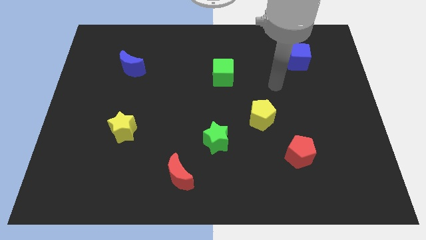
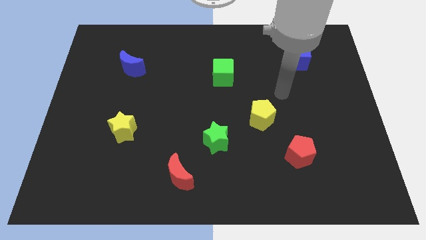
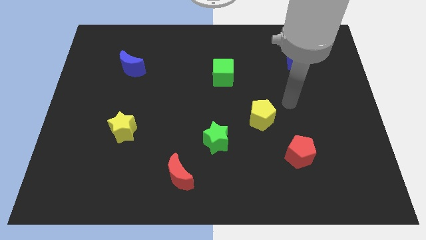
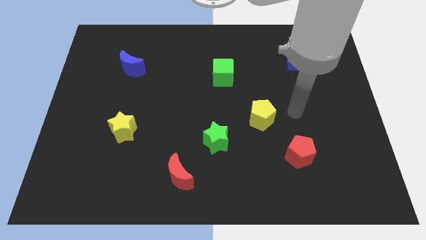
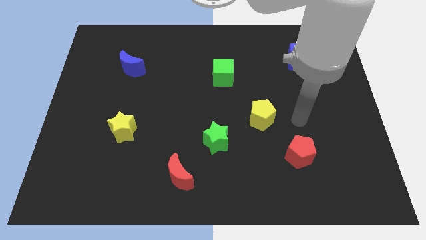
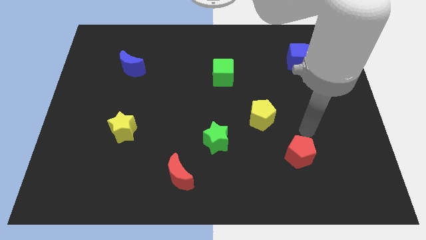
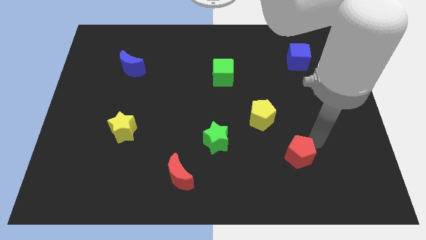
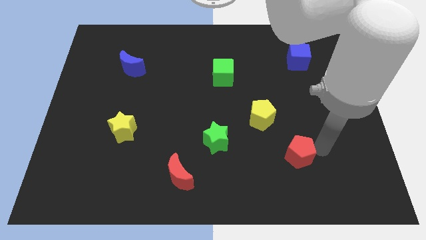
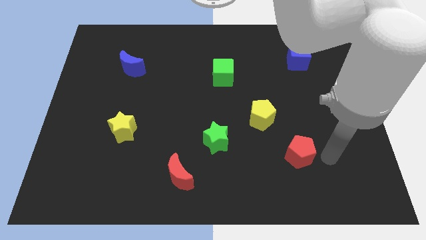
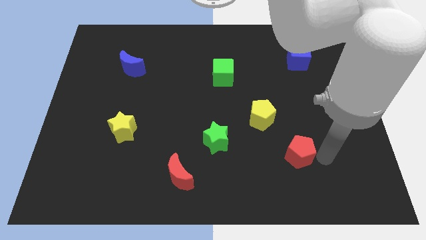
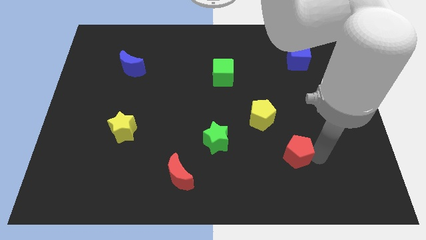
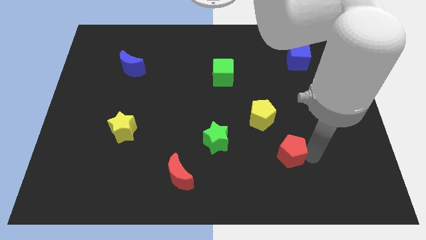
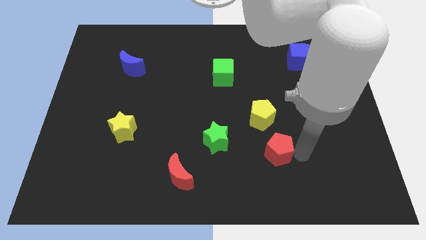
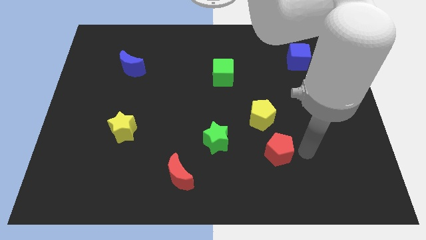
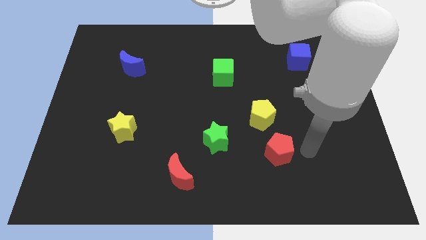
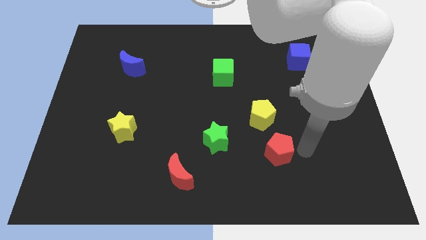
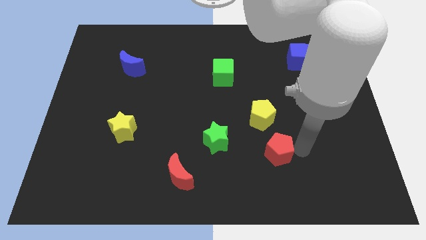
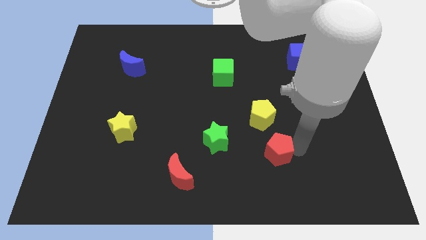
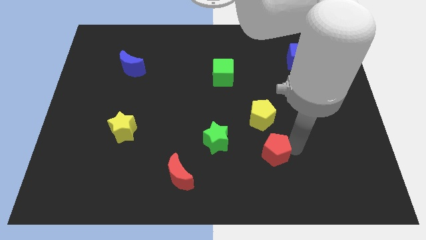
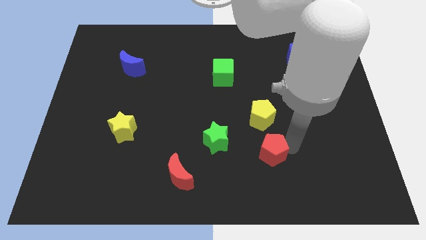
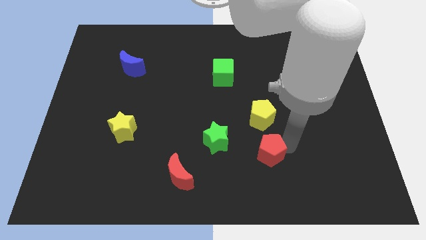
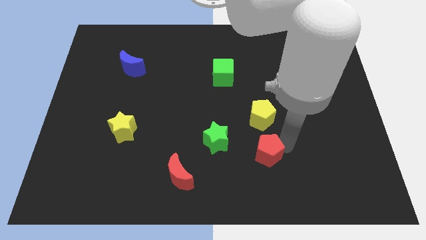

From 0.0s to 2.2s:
push the red pentagon to the left a little bit

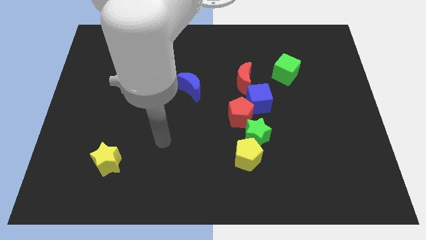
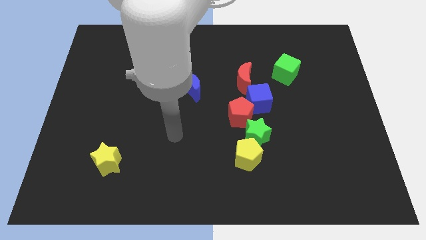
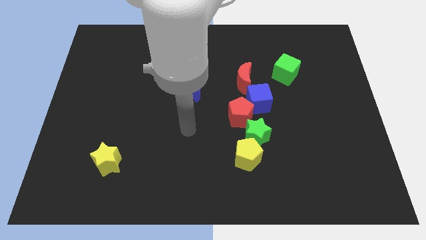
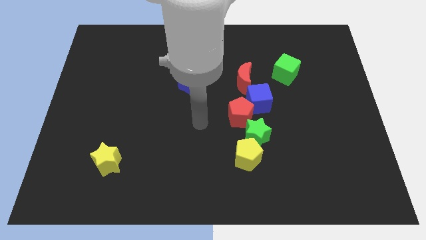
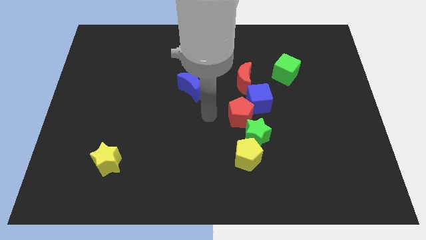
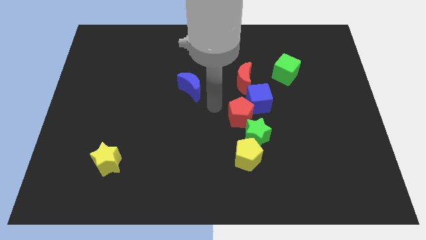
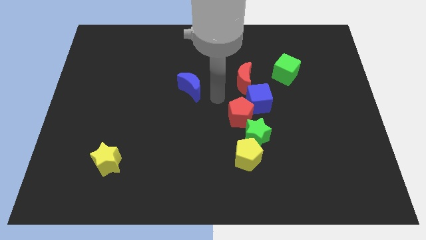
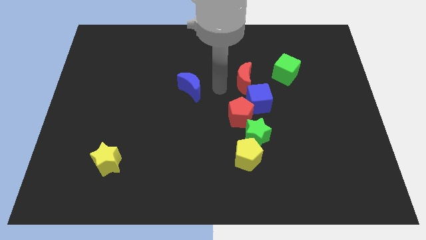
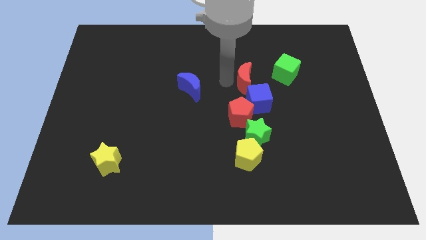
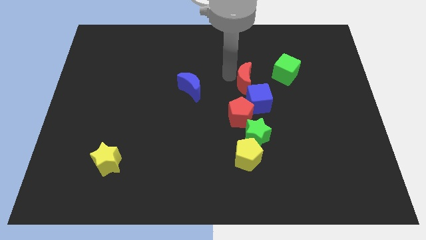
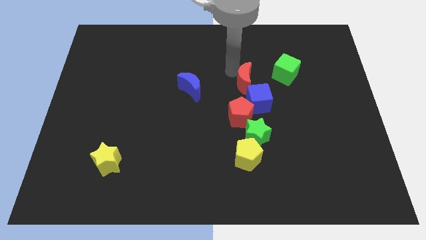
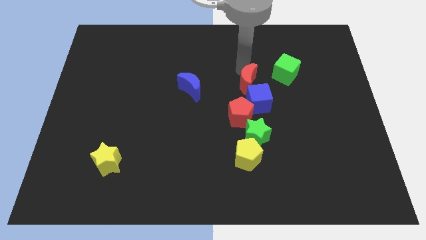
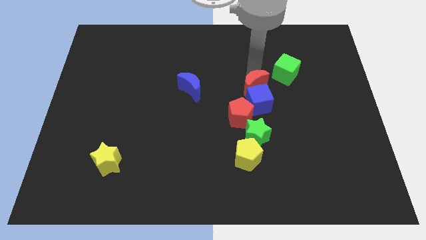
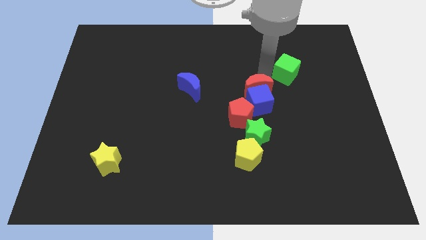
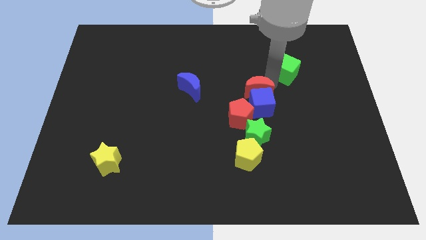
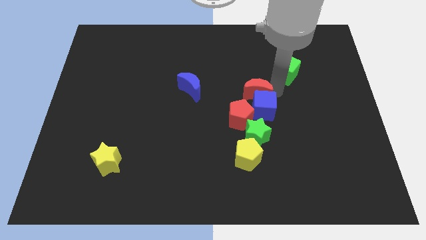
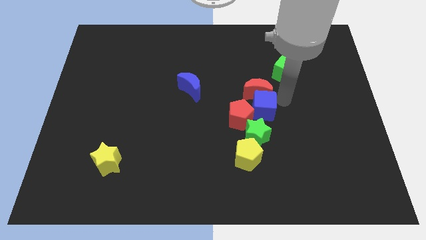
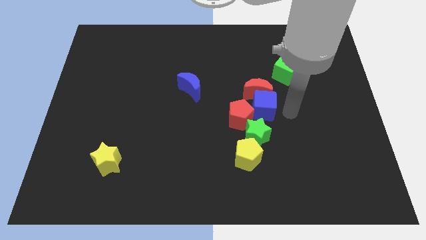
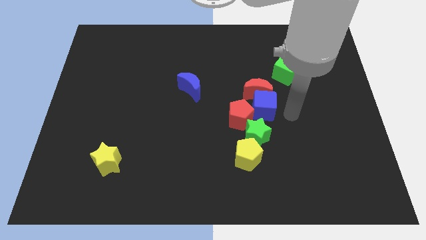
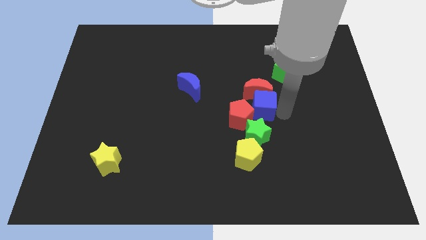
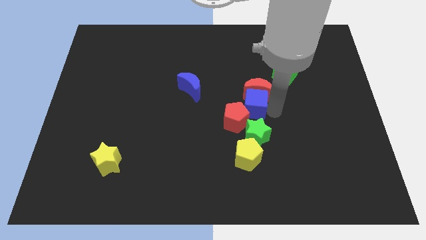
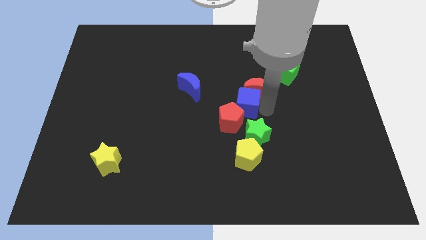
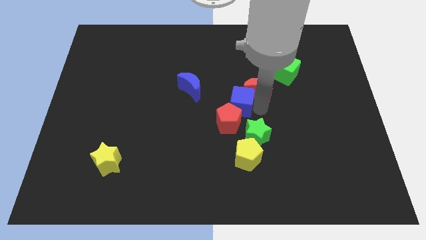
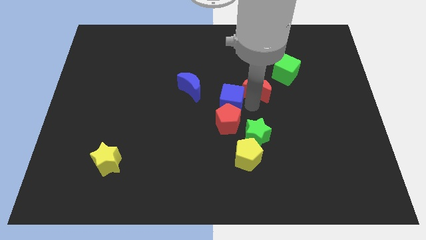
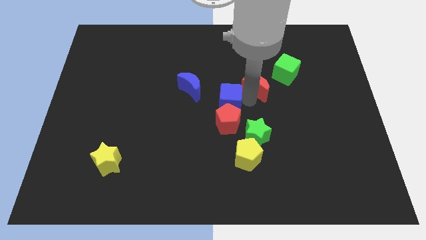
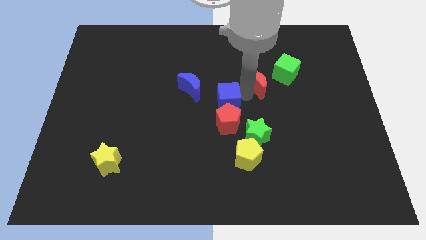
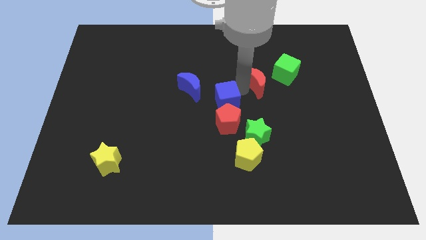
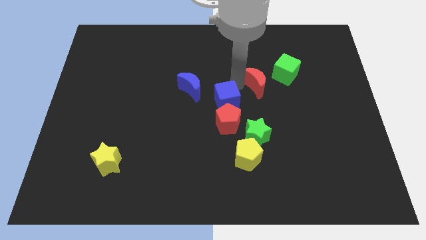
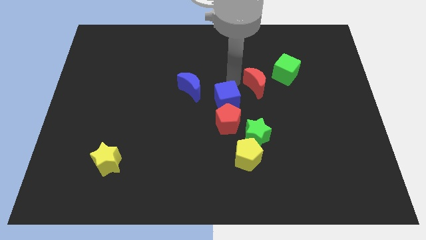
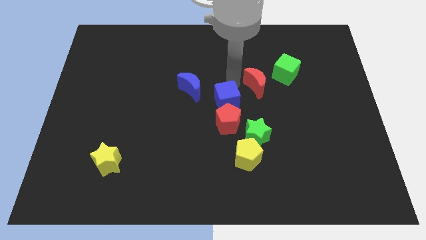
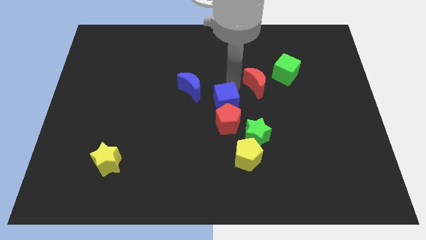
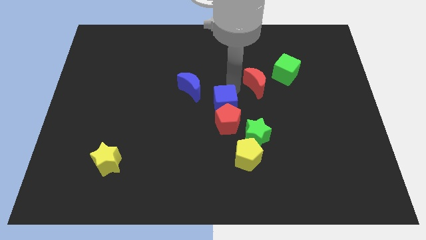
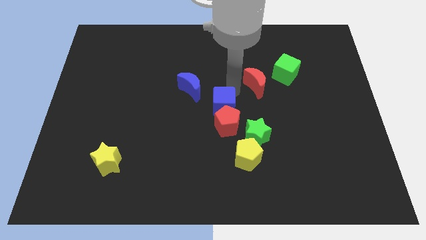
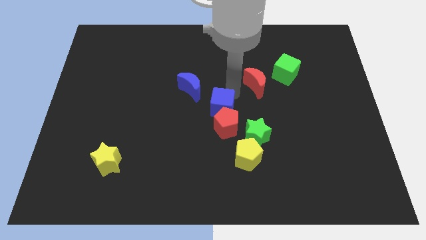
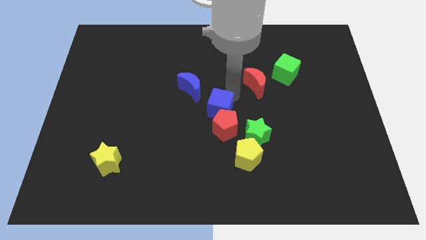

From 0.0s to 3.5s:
slide the blue cube diagonally downwards and to the left a bit

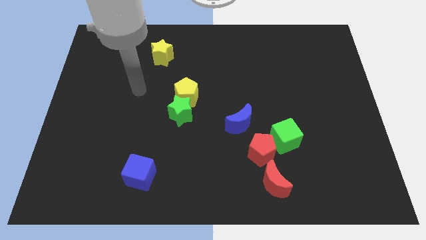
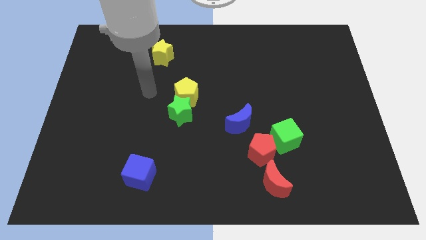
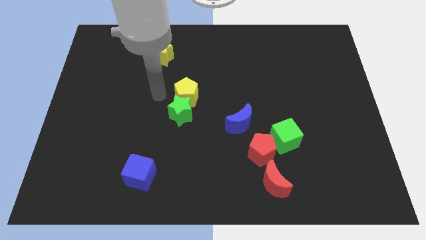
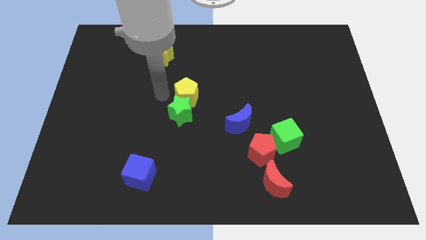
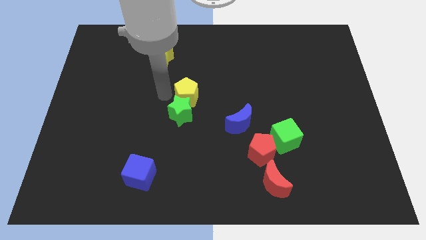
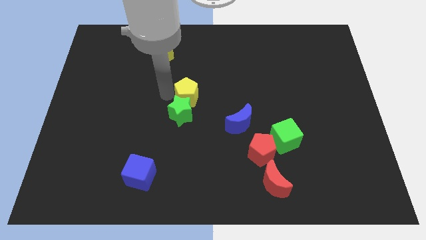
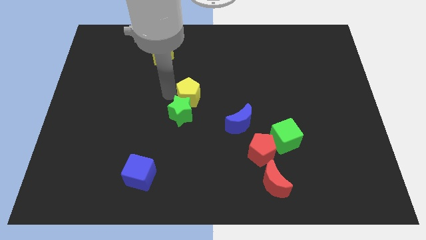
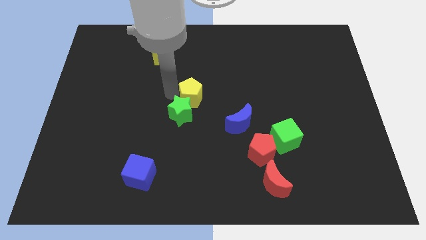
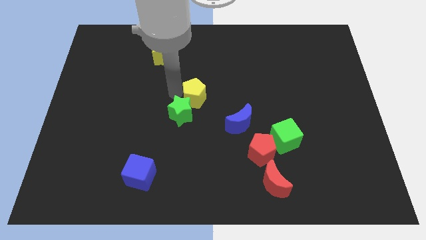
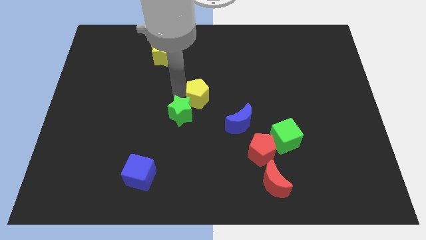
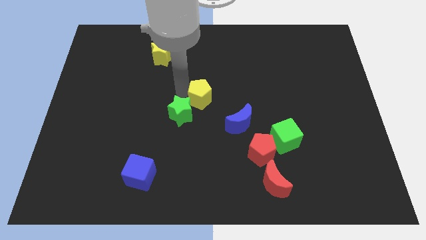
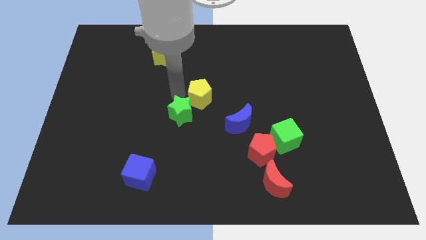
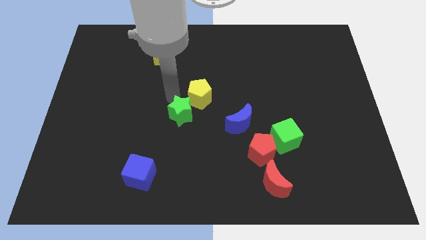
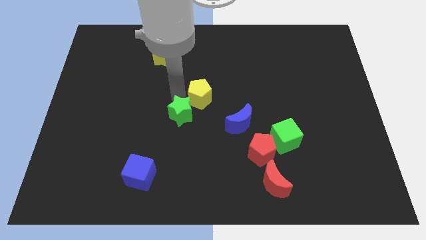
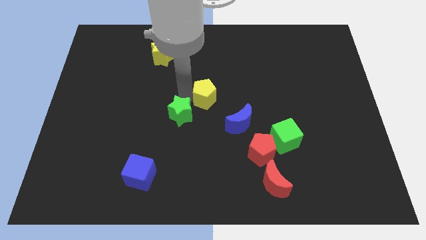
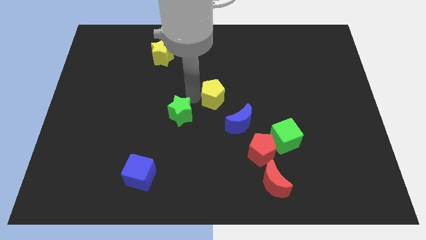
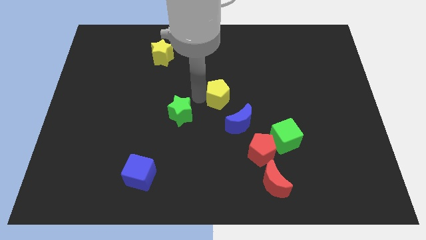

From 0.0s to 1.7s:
push the yellow pentagon to the right slightly

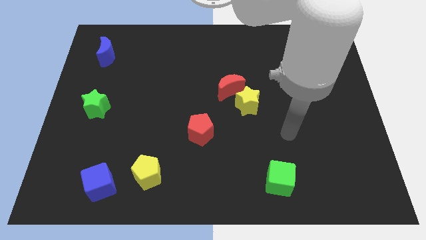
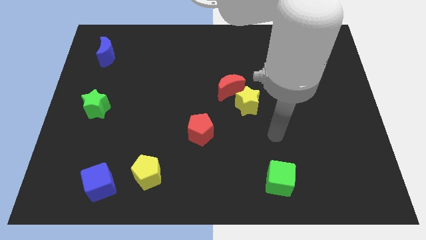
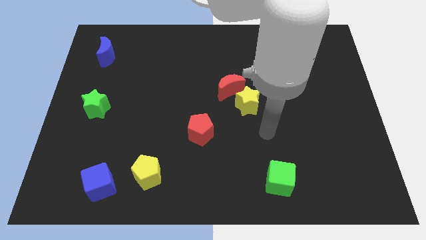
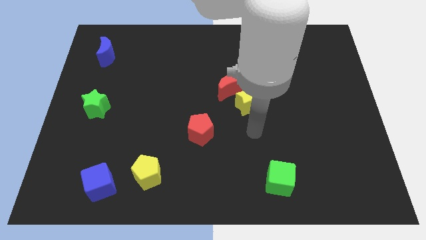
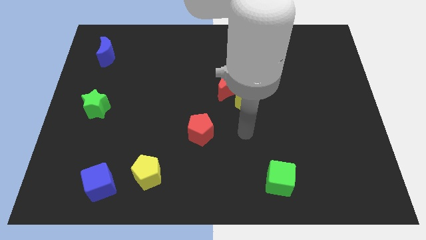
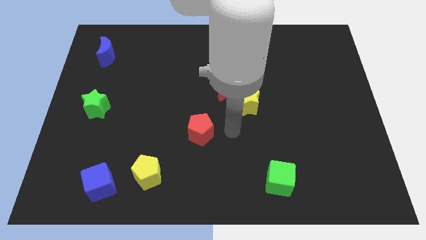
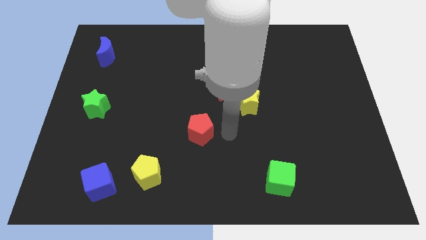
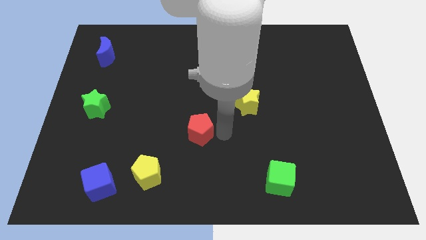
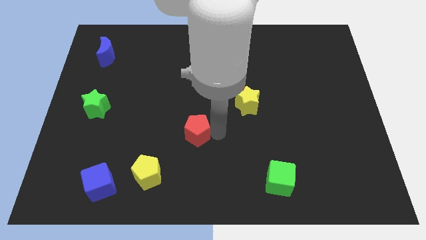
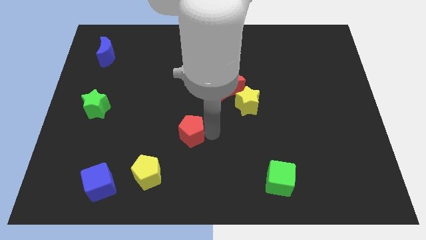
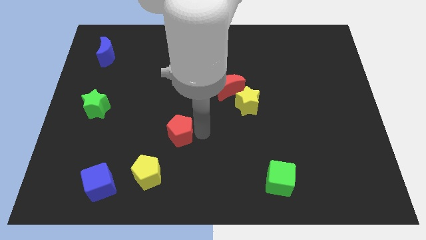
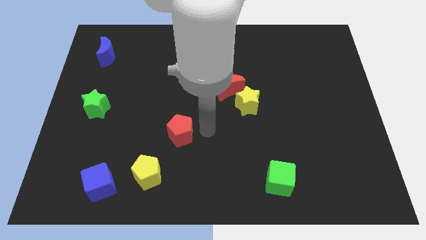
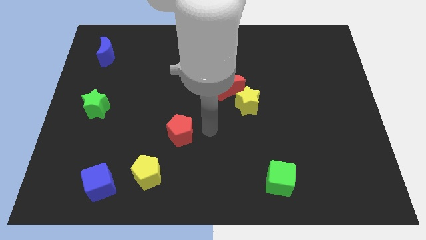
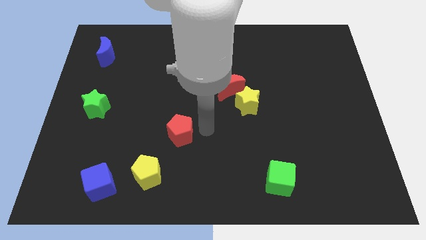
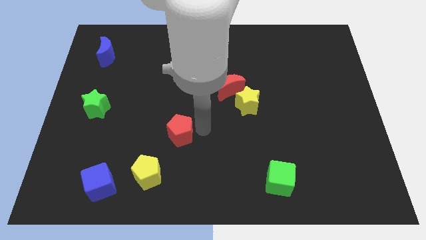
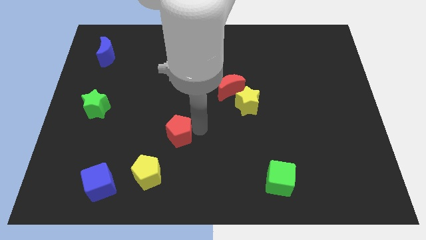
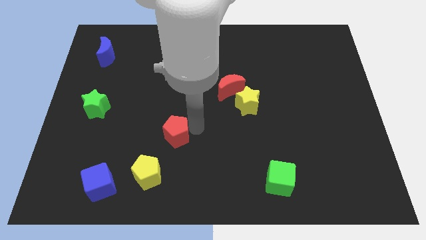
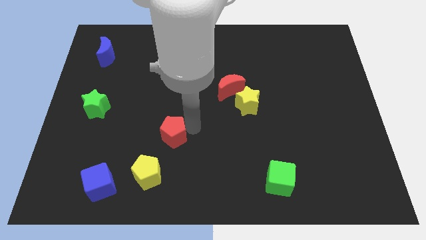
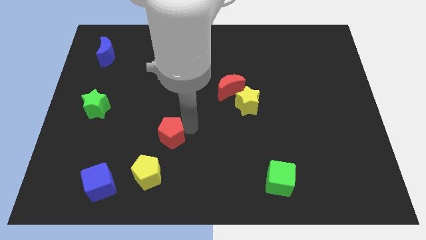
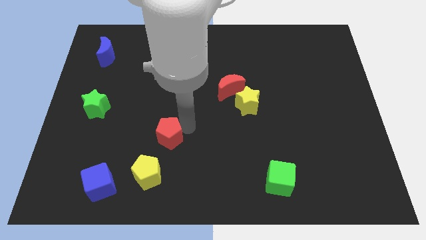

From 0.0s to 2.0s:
move the red pentagon left somewhat
